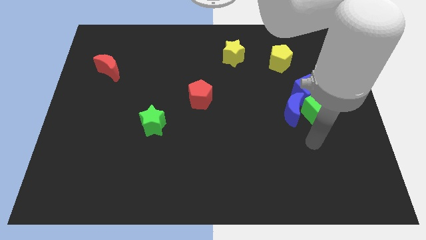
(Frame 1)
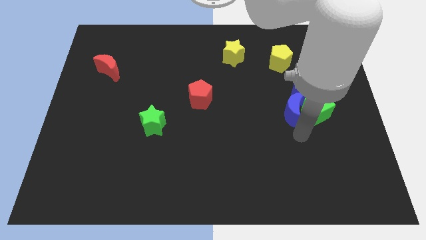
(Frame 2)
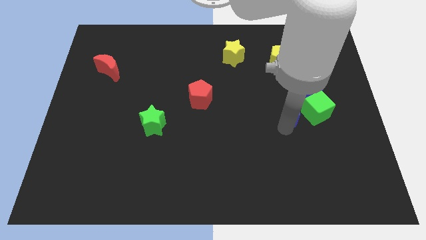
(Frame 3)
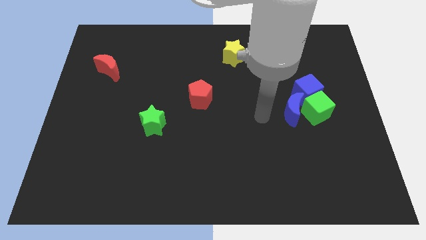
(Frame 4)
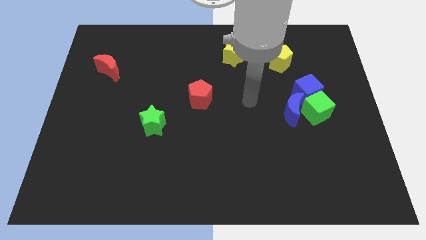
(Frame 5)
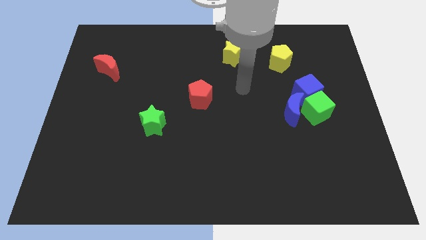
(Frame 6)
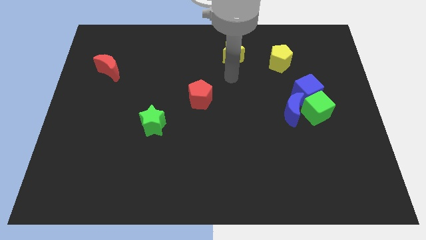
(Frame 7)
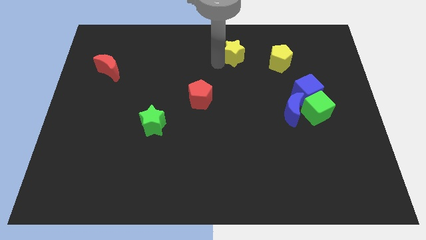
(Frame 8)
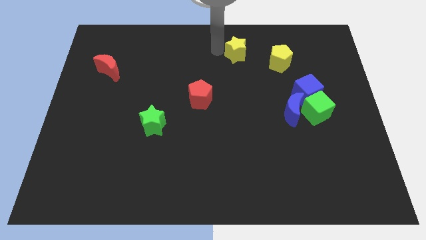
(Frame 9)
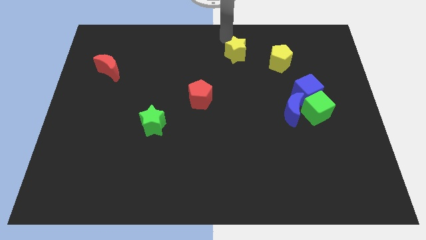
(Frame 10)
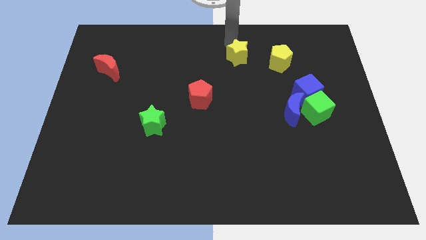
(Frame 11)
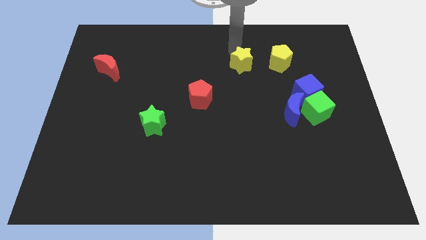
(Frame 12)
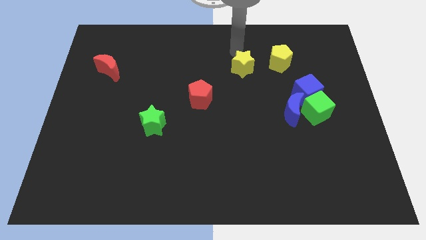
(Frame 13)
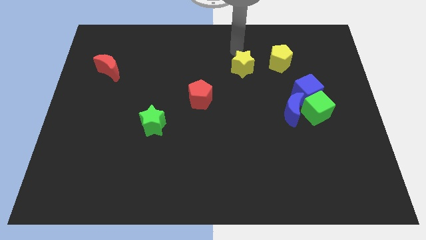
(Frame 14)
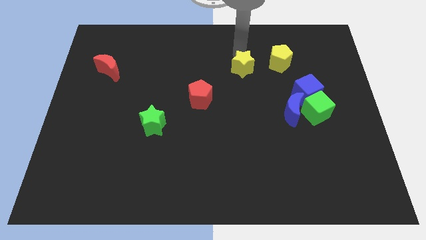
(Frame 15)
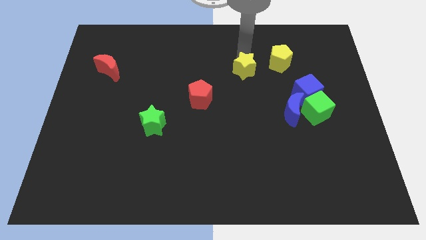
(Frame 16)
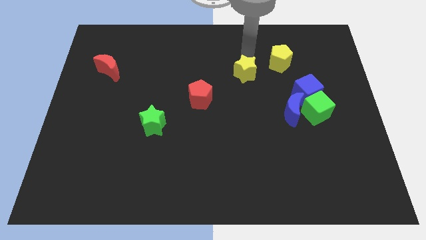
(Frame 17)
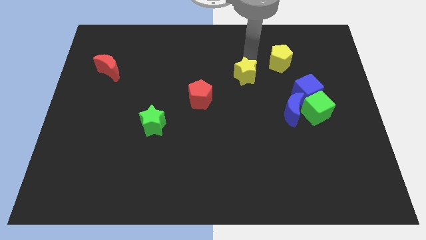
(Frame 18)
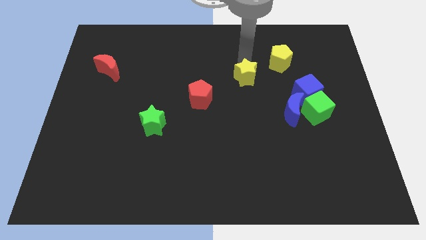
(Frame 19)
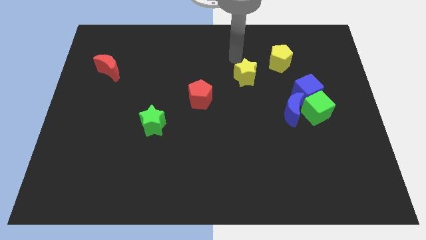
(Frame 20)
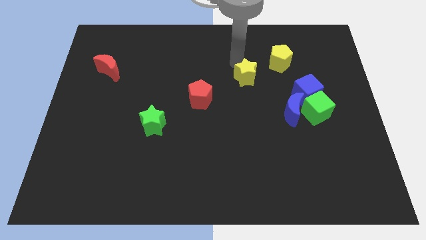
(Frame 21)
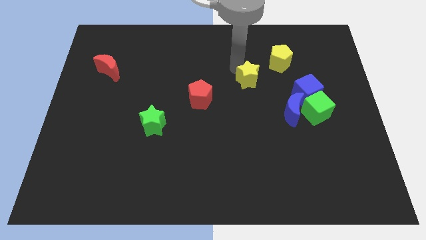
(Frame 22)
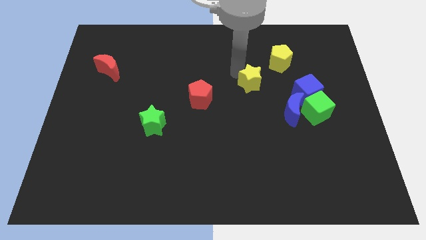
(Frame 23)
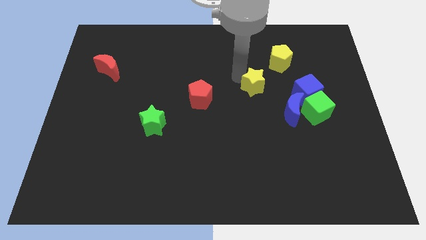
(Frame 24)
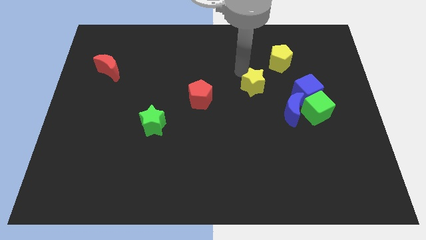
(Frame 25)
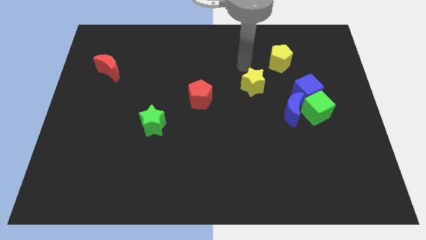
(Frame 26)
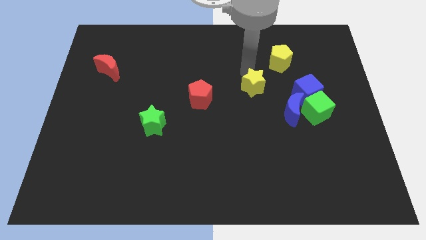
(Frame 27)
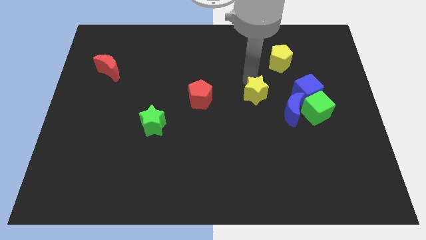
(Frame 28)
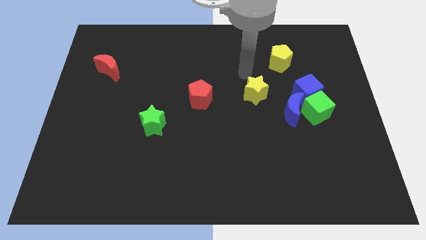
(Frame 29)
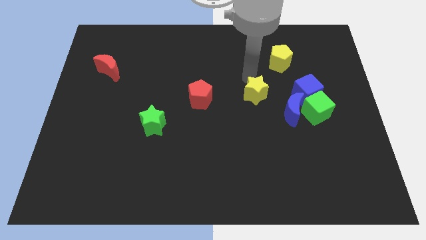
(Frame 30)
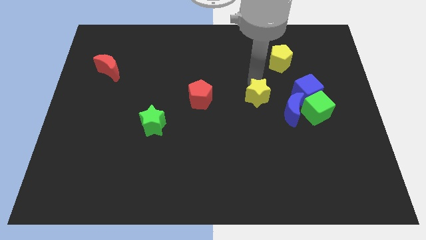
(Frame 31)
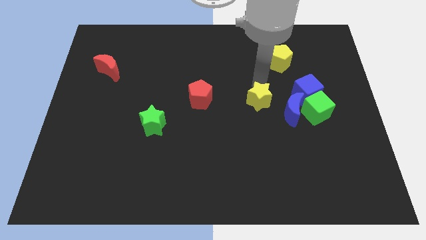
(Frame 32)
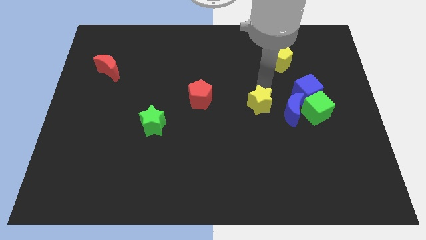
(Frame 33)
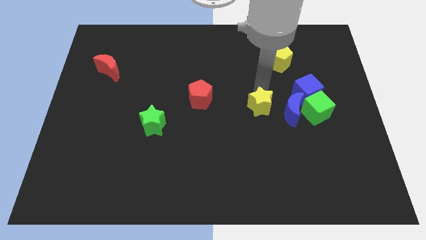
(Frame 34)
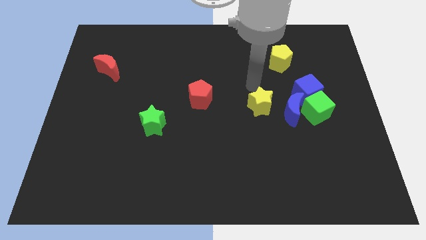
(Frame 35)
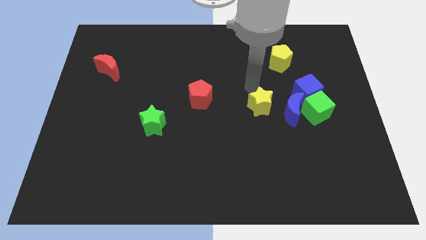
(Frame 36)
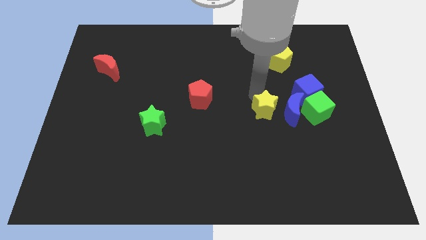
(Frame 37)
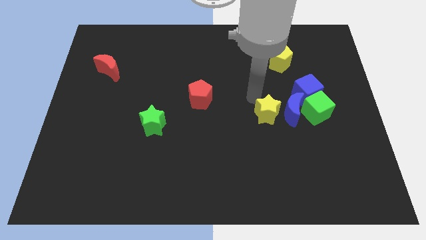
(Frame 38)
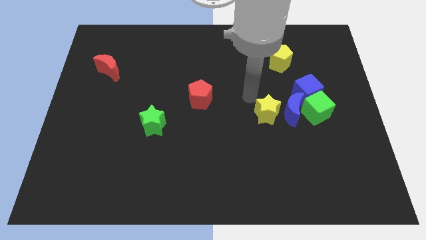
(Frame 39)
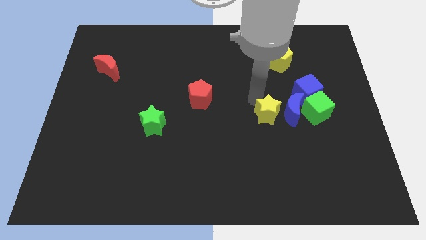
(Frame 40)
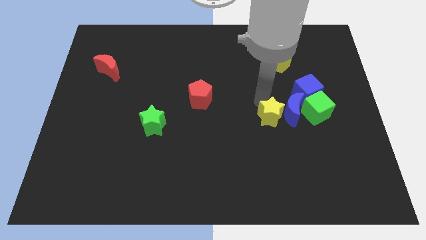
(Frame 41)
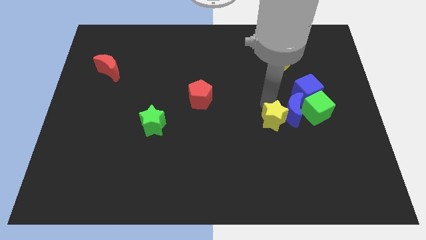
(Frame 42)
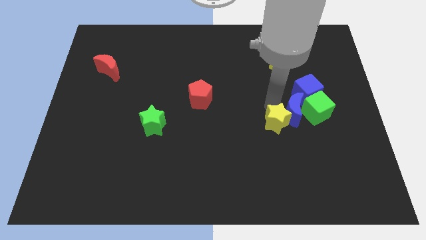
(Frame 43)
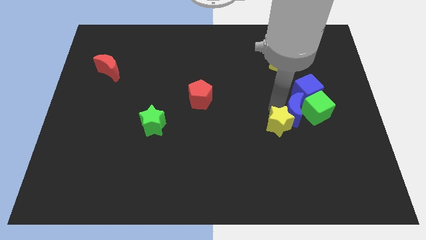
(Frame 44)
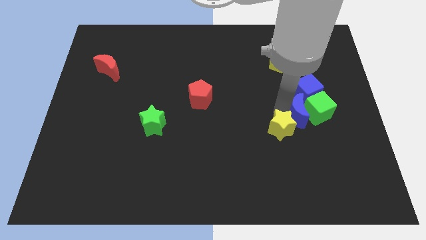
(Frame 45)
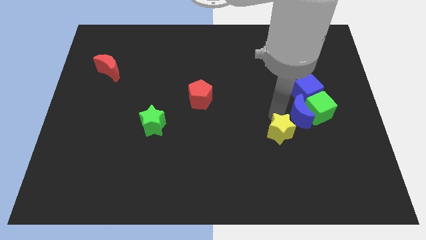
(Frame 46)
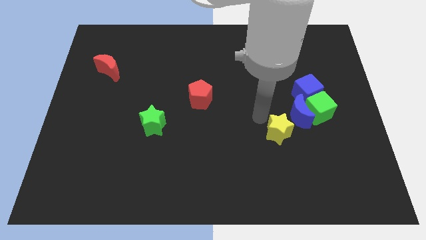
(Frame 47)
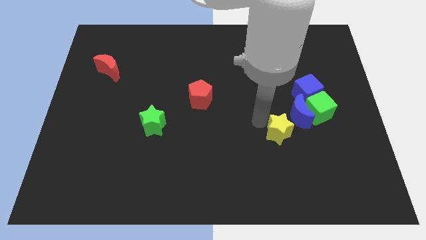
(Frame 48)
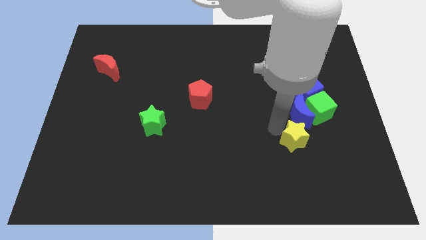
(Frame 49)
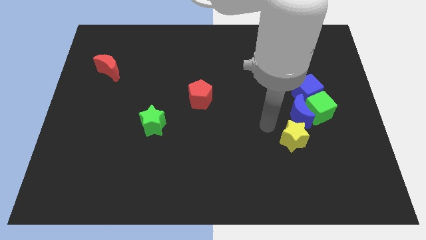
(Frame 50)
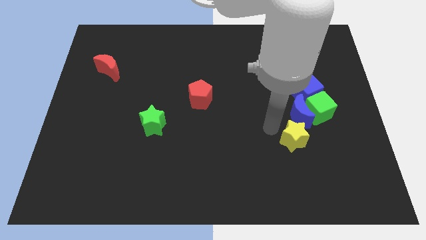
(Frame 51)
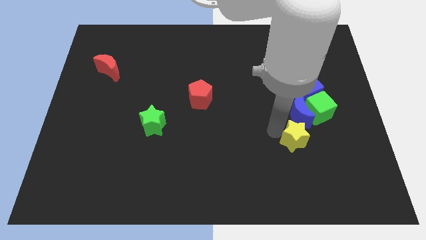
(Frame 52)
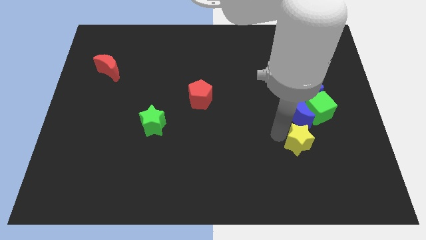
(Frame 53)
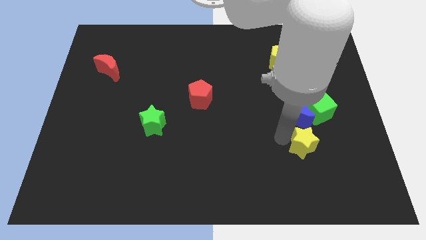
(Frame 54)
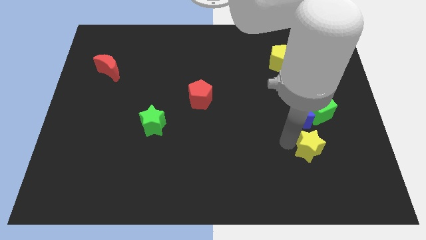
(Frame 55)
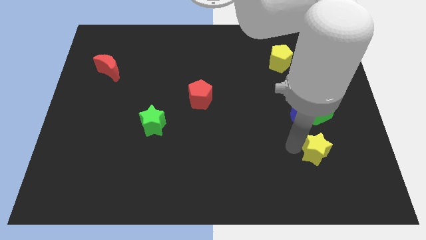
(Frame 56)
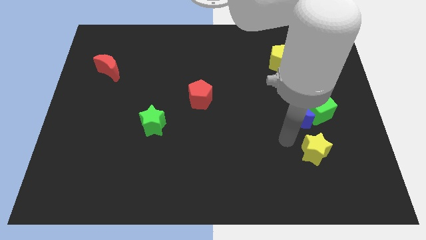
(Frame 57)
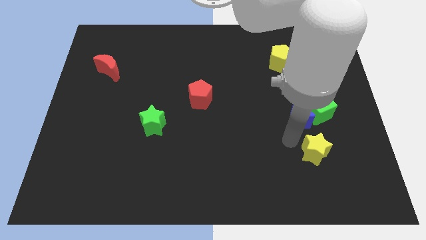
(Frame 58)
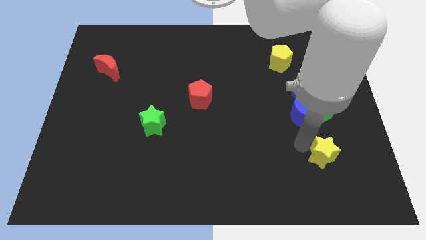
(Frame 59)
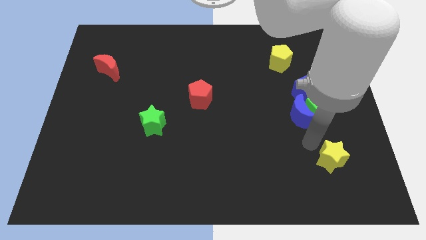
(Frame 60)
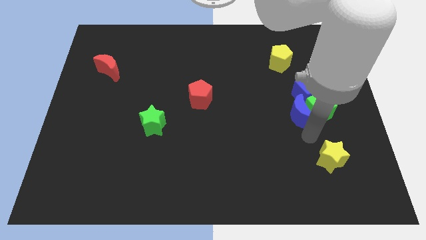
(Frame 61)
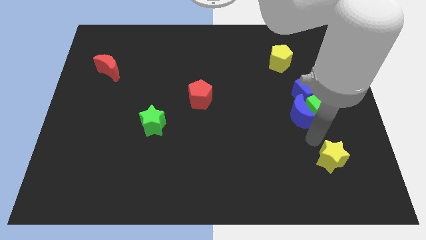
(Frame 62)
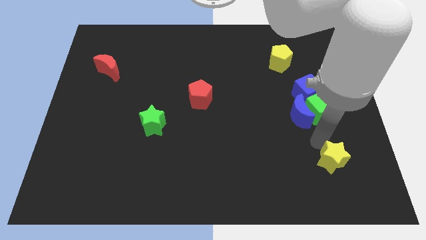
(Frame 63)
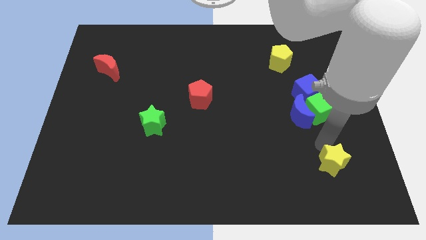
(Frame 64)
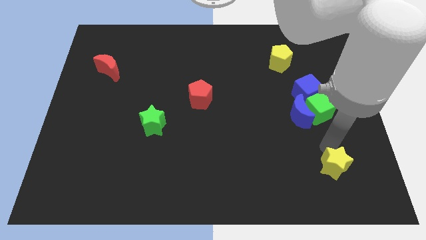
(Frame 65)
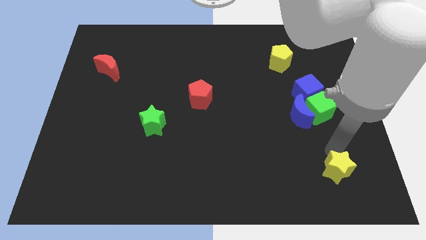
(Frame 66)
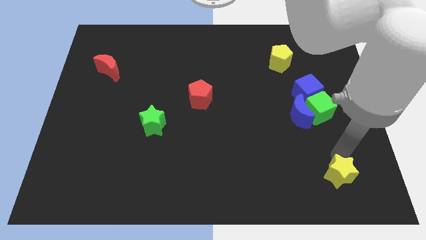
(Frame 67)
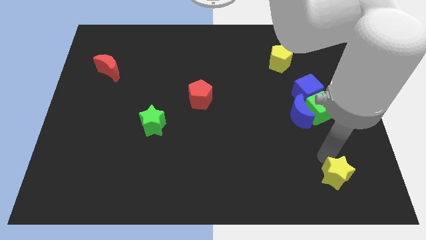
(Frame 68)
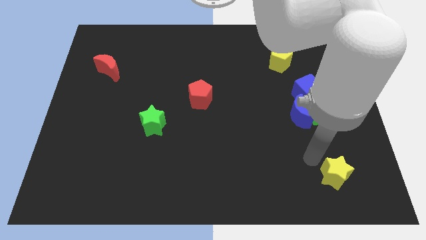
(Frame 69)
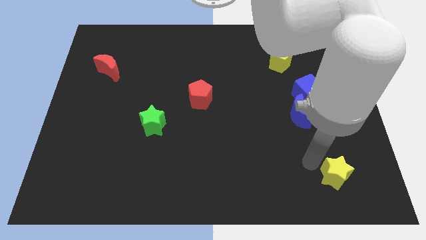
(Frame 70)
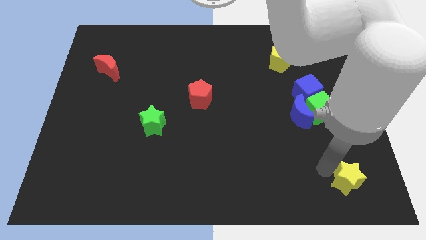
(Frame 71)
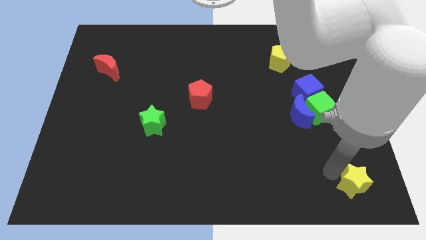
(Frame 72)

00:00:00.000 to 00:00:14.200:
push the yellow star to the bottom right of the board
